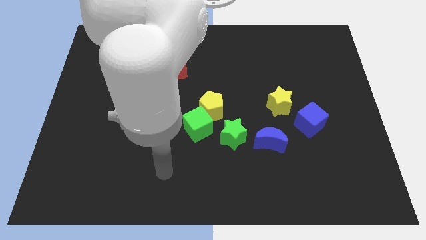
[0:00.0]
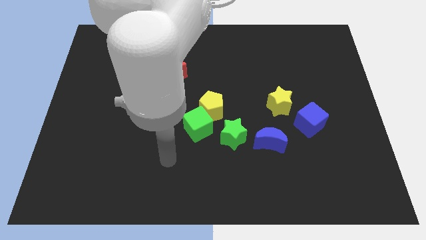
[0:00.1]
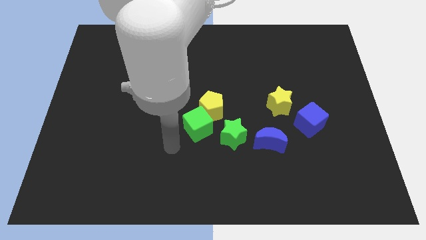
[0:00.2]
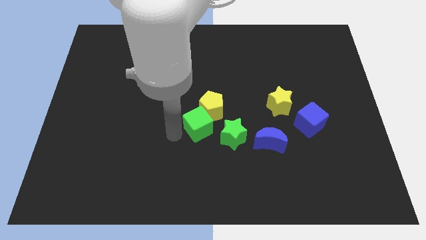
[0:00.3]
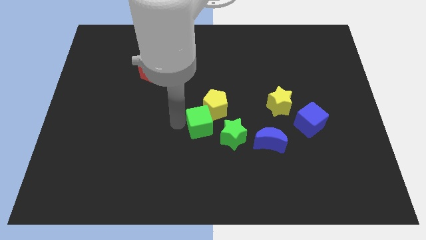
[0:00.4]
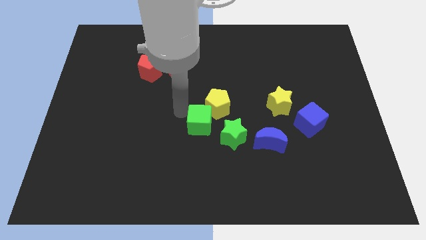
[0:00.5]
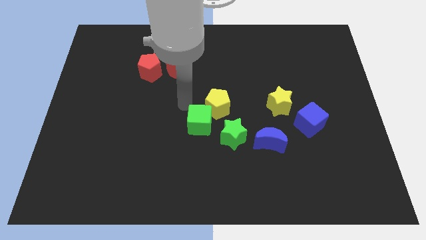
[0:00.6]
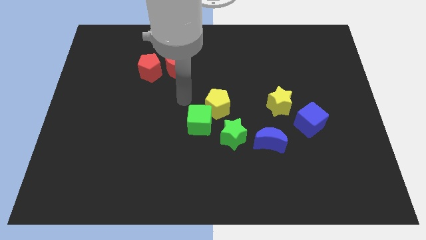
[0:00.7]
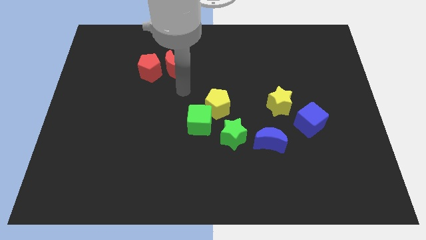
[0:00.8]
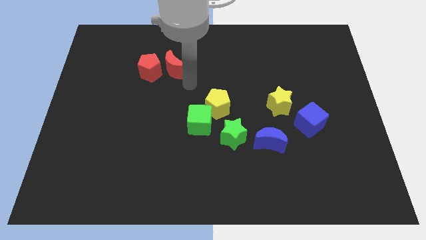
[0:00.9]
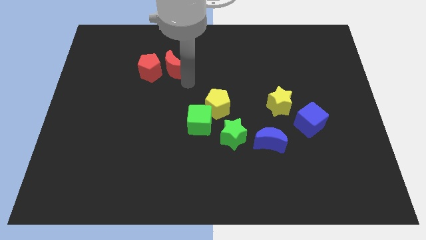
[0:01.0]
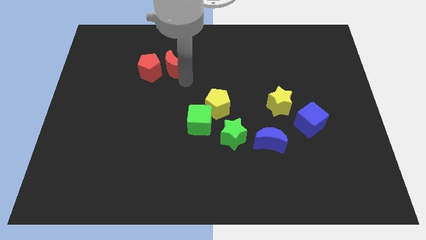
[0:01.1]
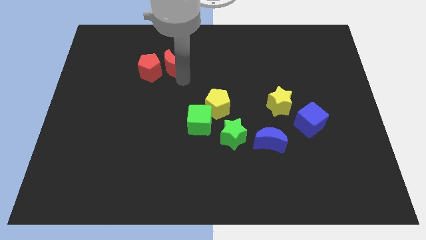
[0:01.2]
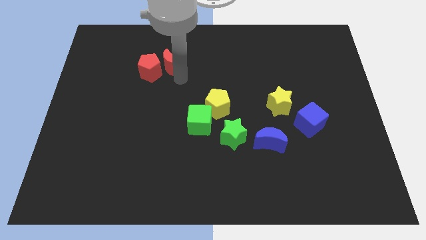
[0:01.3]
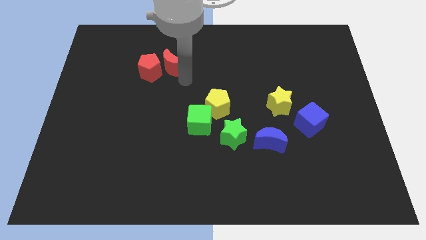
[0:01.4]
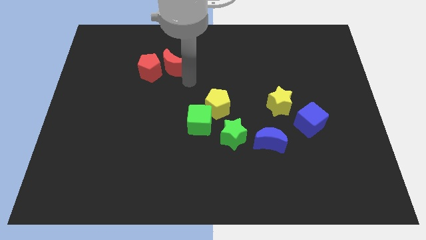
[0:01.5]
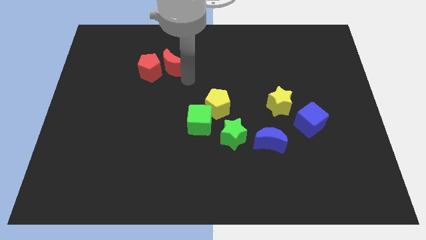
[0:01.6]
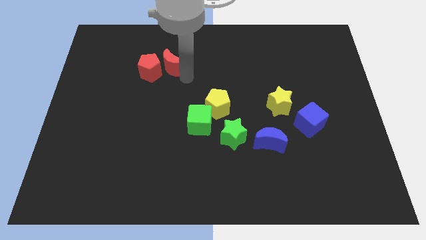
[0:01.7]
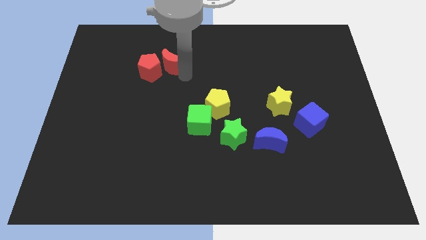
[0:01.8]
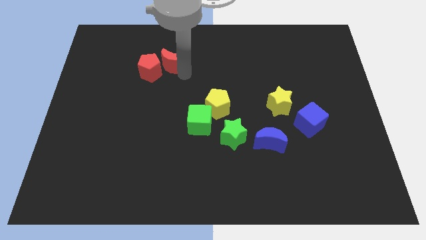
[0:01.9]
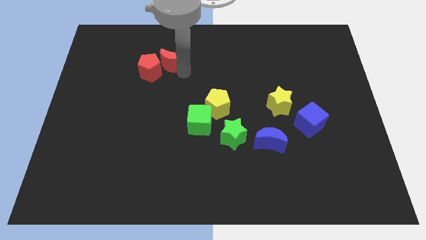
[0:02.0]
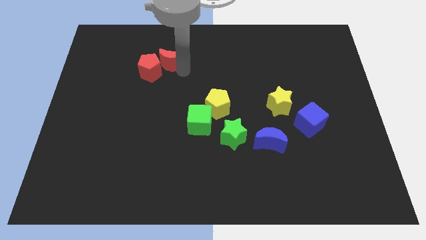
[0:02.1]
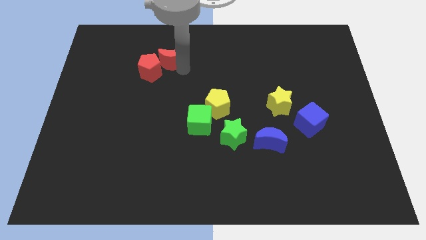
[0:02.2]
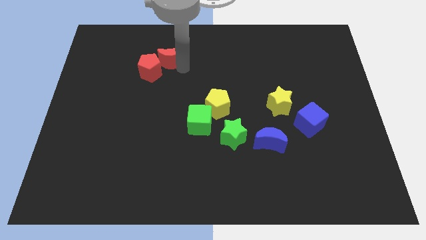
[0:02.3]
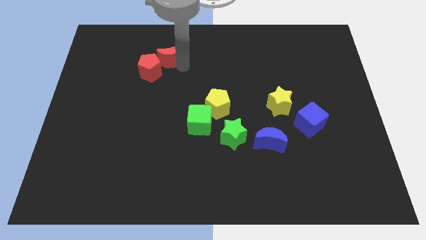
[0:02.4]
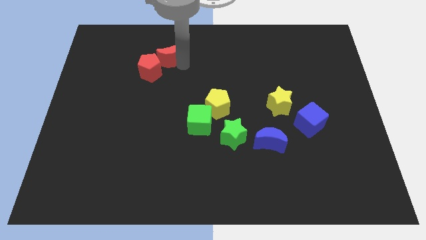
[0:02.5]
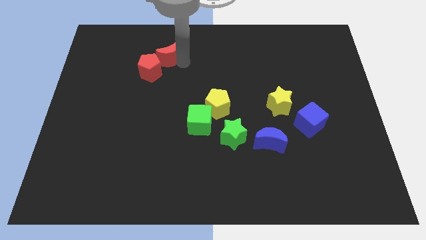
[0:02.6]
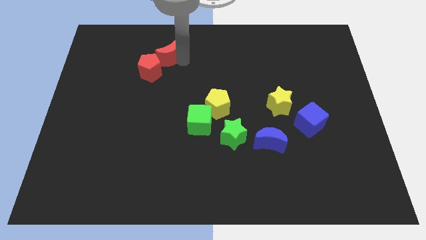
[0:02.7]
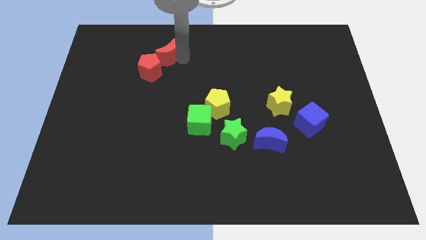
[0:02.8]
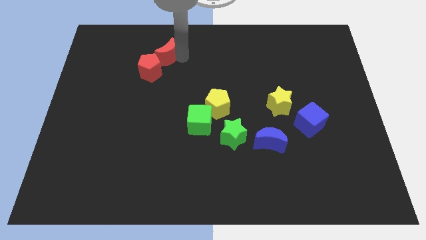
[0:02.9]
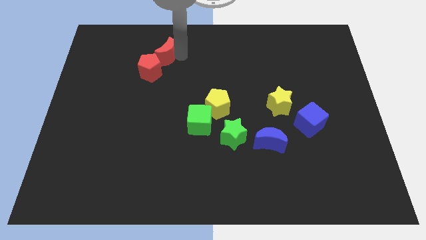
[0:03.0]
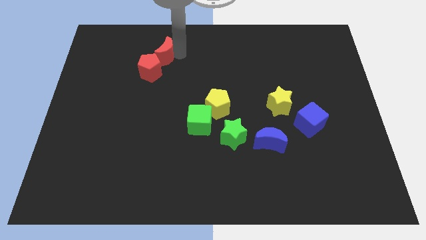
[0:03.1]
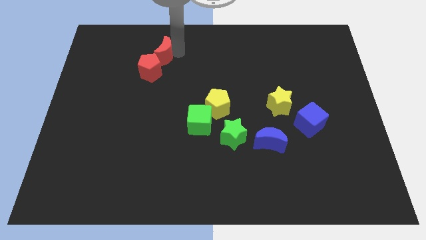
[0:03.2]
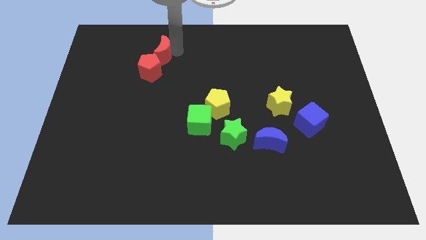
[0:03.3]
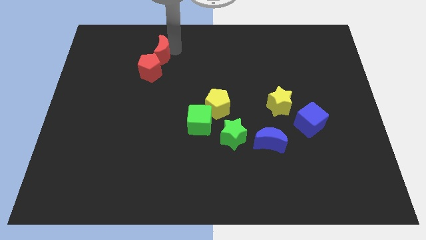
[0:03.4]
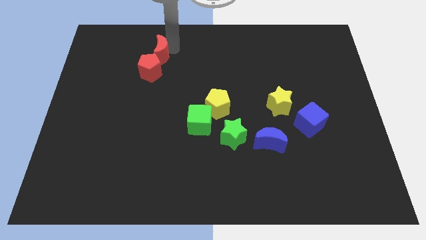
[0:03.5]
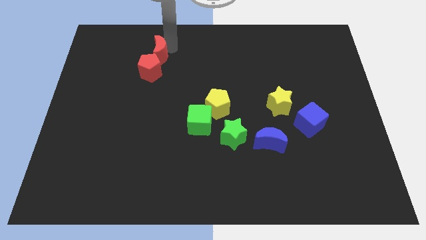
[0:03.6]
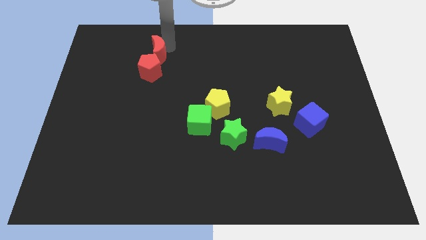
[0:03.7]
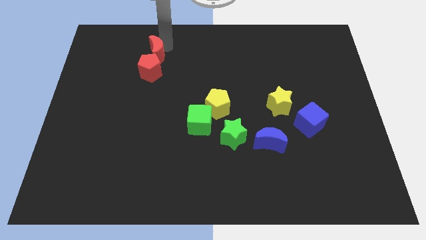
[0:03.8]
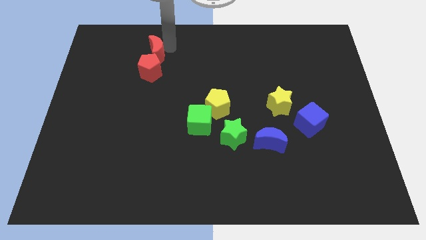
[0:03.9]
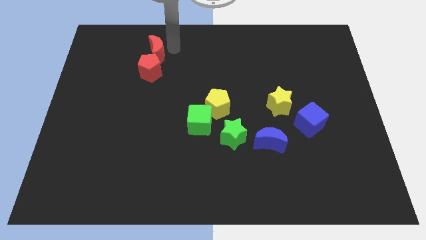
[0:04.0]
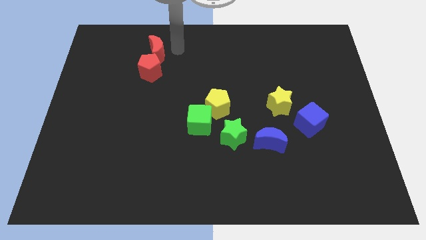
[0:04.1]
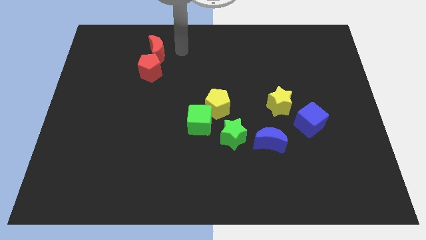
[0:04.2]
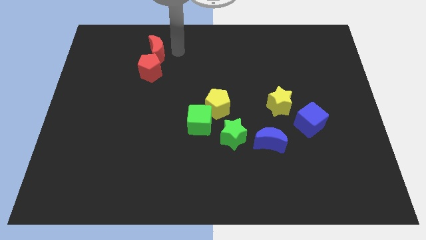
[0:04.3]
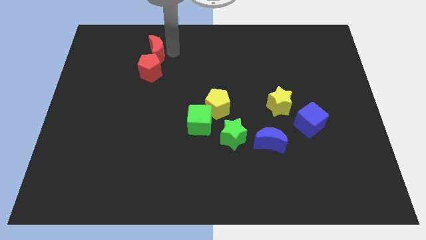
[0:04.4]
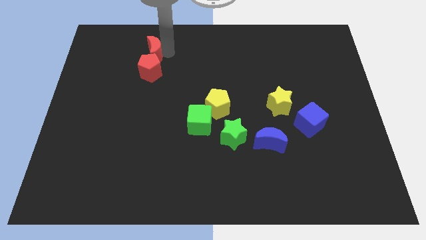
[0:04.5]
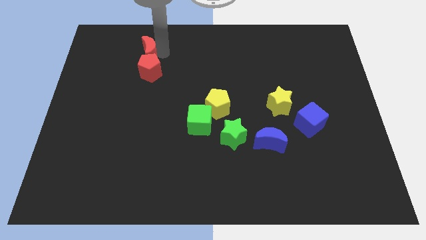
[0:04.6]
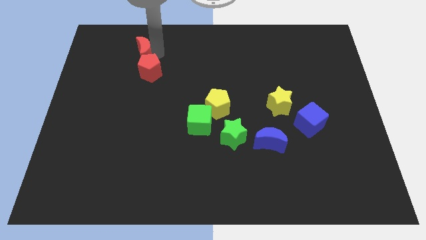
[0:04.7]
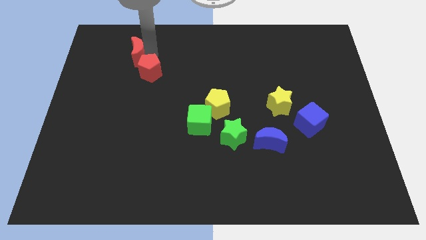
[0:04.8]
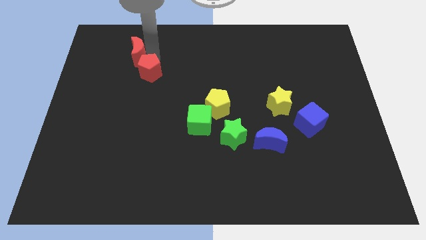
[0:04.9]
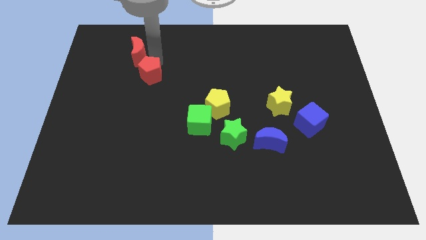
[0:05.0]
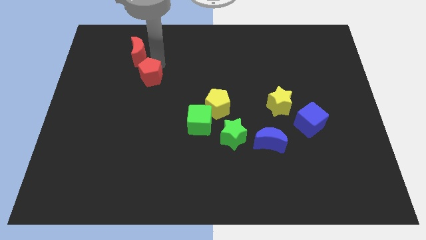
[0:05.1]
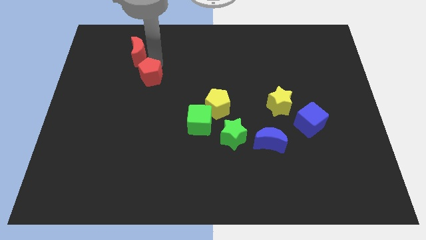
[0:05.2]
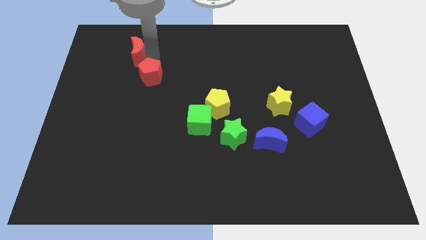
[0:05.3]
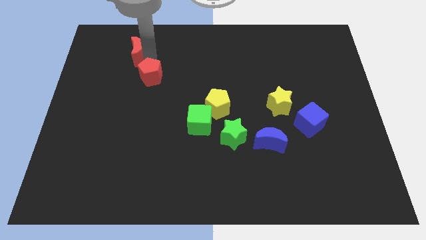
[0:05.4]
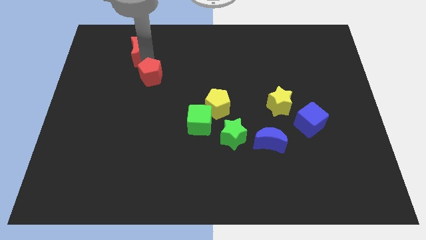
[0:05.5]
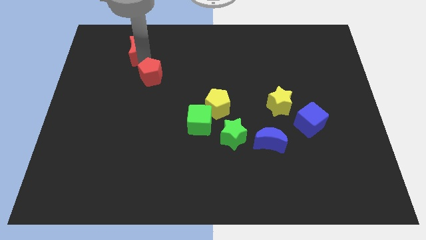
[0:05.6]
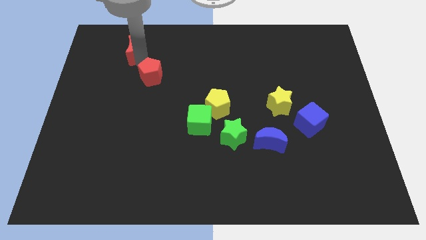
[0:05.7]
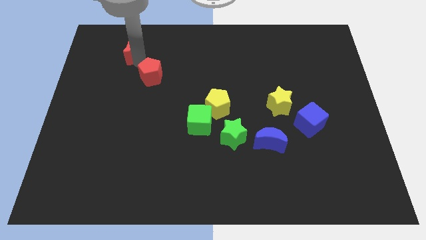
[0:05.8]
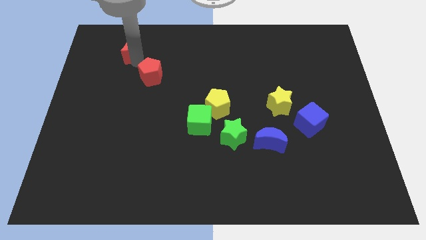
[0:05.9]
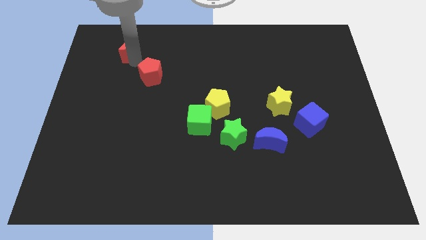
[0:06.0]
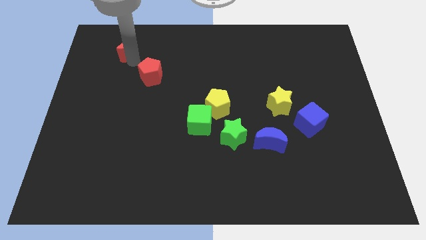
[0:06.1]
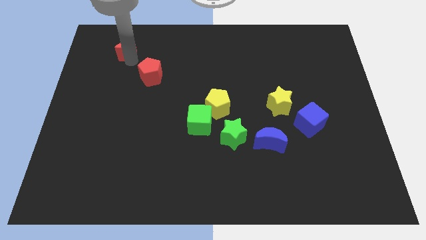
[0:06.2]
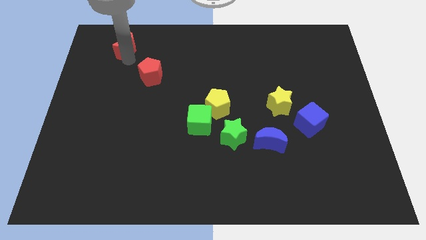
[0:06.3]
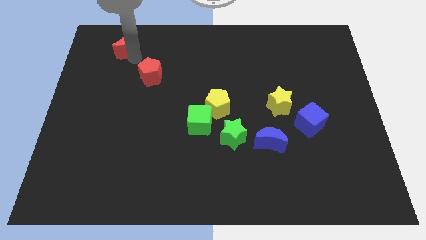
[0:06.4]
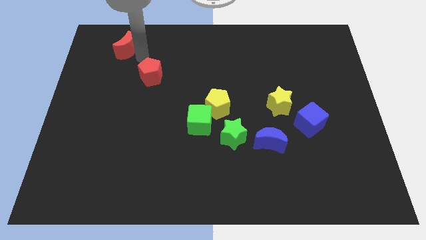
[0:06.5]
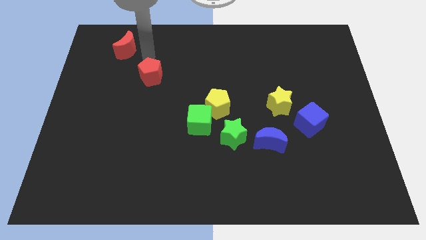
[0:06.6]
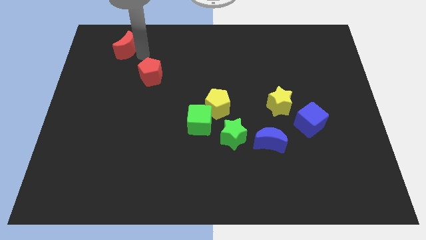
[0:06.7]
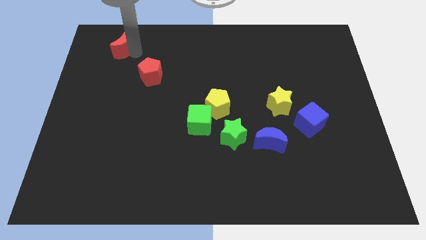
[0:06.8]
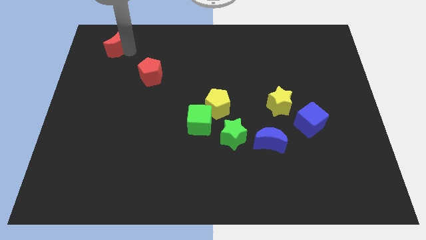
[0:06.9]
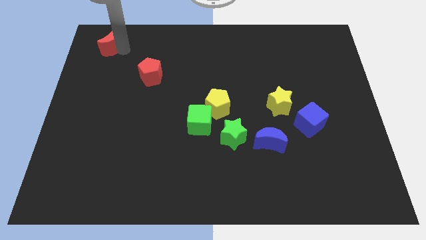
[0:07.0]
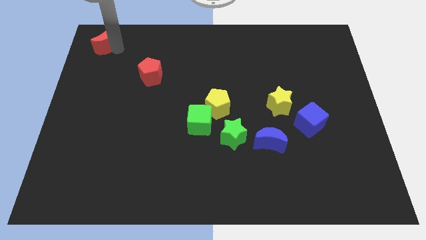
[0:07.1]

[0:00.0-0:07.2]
slide the red moon to the top left corner

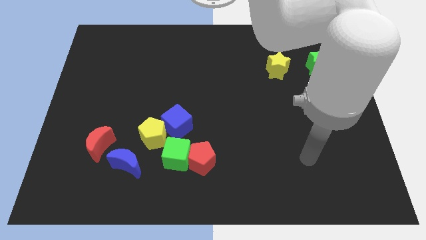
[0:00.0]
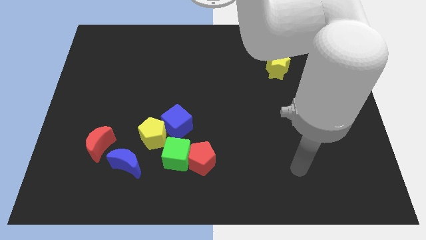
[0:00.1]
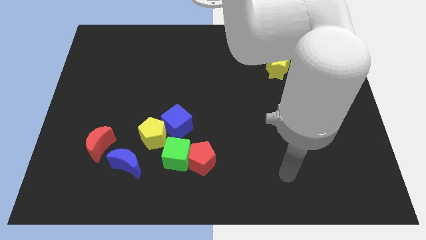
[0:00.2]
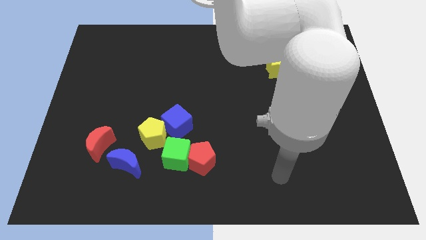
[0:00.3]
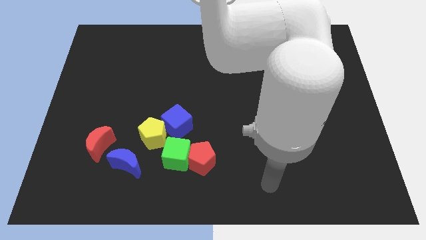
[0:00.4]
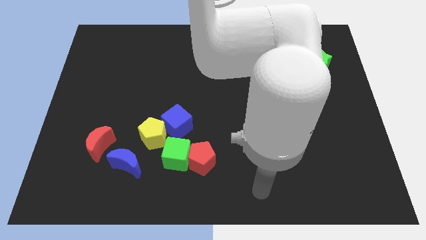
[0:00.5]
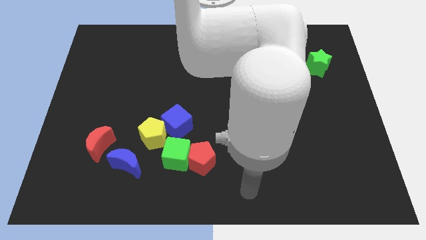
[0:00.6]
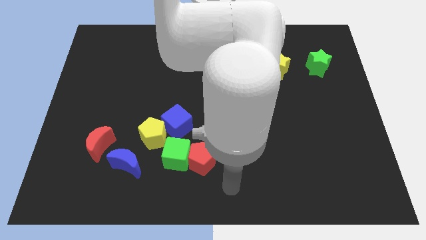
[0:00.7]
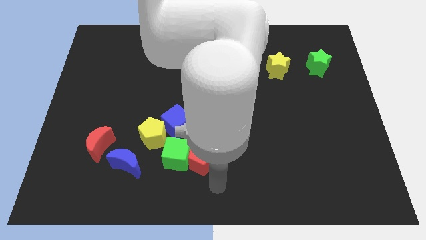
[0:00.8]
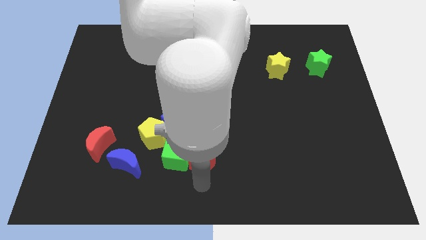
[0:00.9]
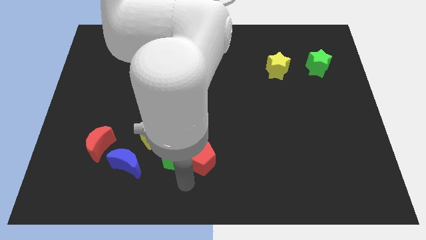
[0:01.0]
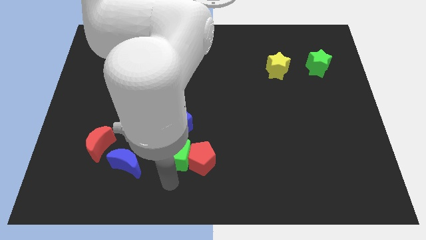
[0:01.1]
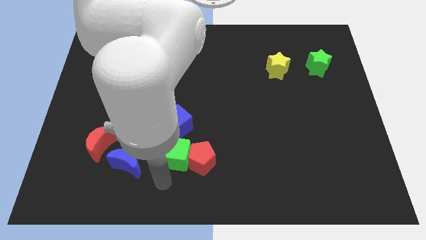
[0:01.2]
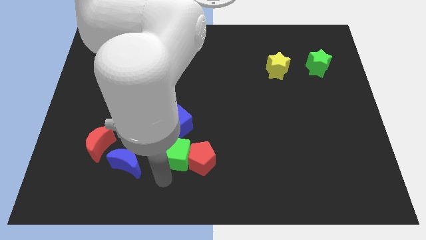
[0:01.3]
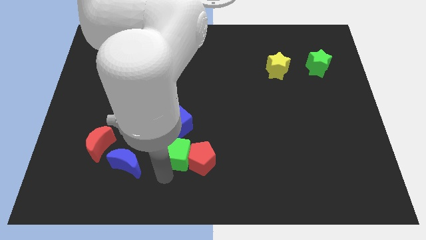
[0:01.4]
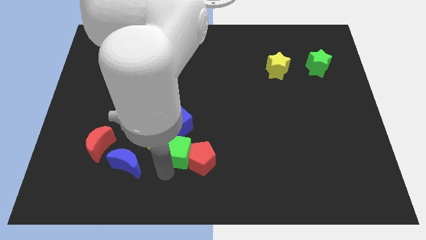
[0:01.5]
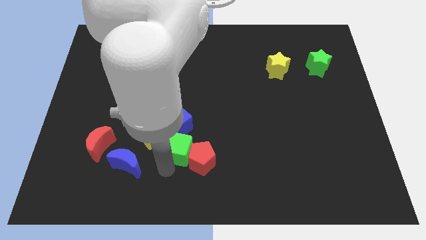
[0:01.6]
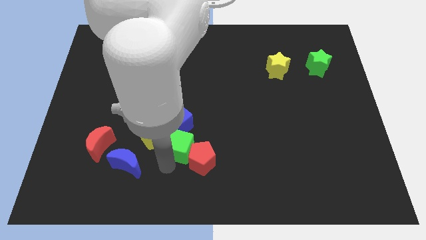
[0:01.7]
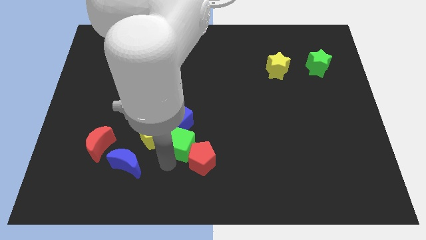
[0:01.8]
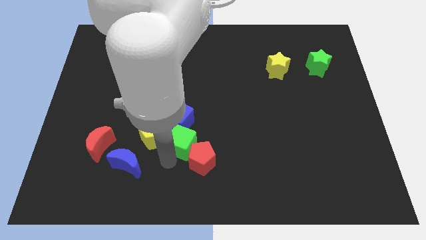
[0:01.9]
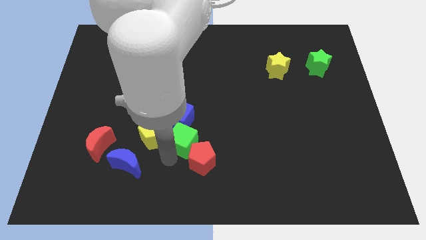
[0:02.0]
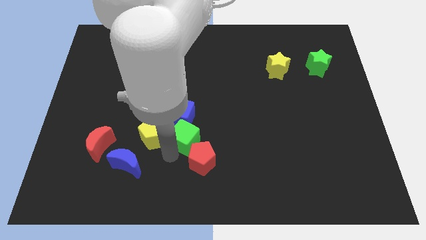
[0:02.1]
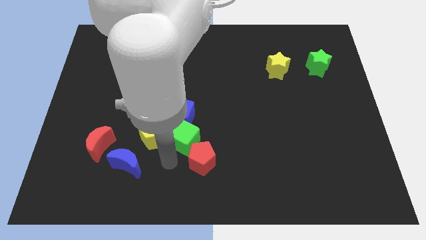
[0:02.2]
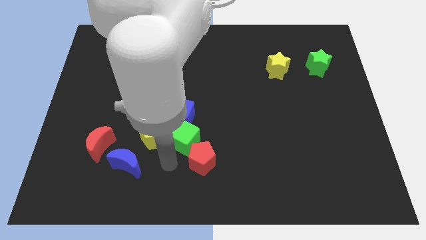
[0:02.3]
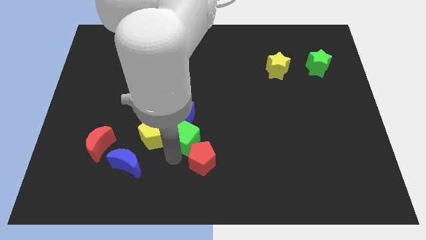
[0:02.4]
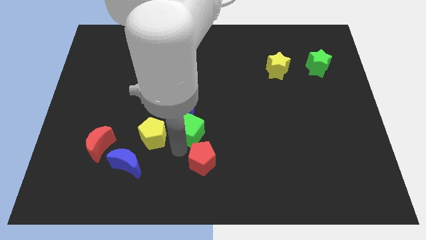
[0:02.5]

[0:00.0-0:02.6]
move the green cube to the center of the board
